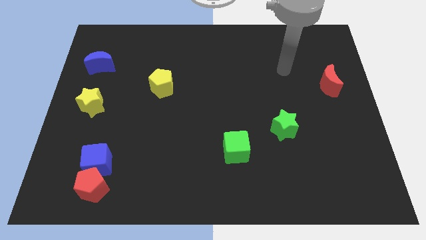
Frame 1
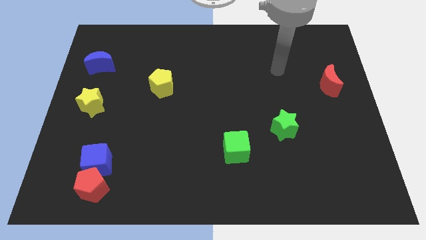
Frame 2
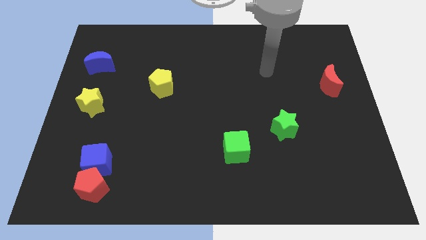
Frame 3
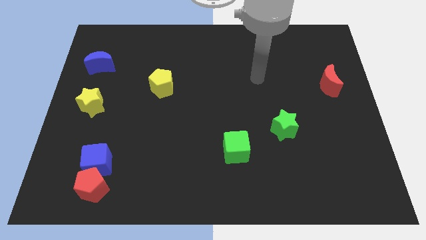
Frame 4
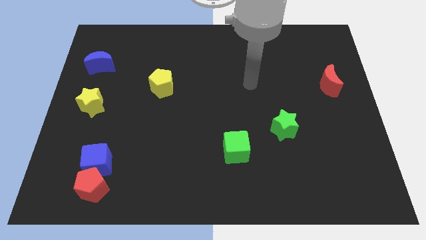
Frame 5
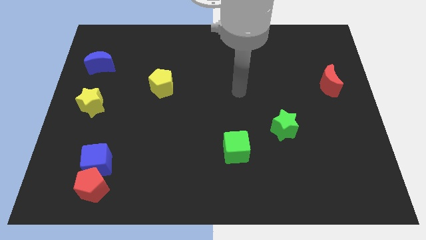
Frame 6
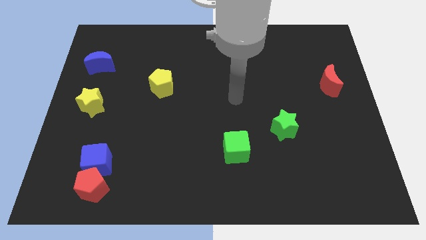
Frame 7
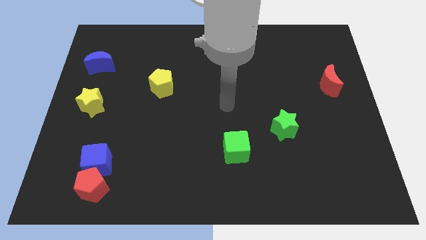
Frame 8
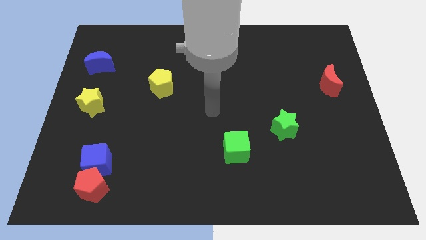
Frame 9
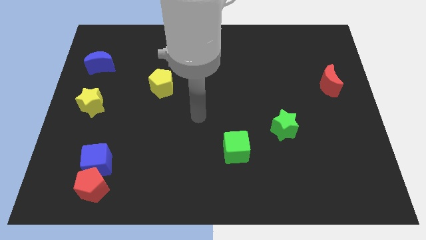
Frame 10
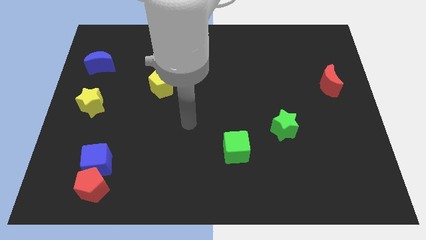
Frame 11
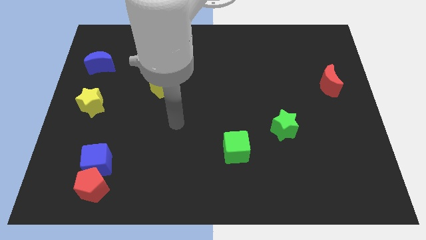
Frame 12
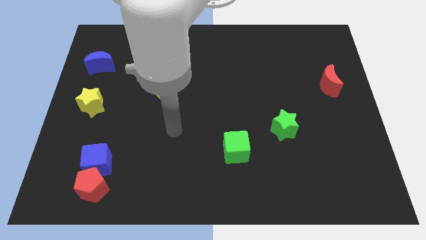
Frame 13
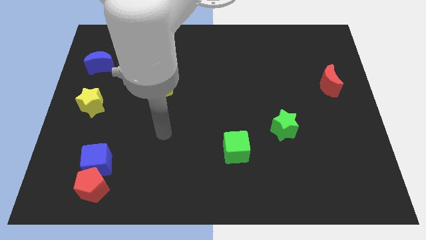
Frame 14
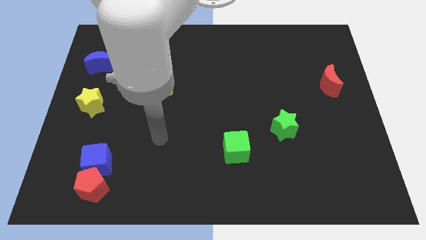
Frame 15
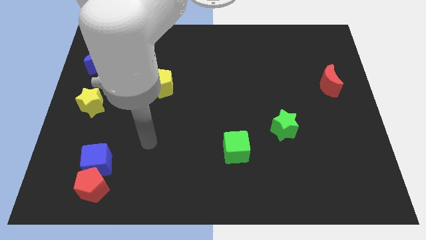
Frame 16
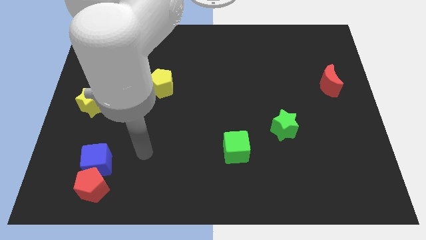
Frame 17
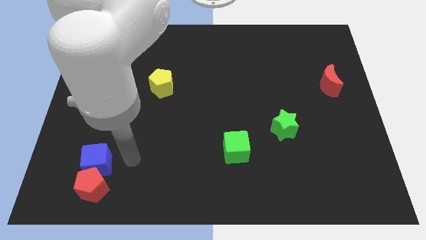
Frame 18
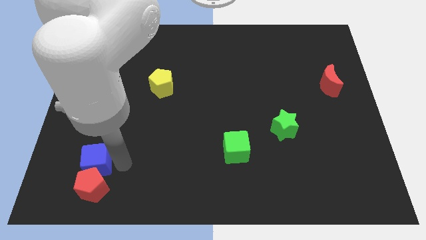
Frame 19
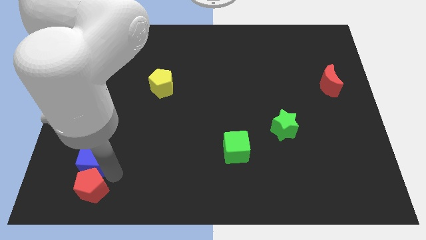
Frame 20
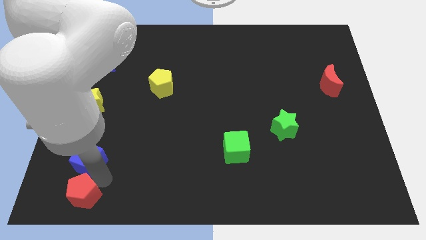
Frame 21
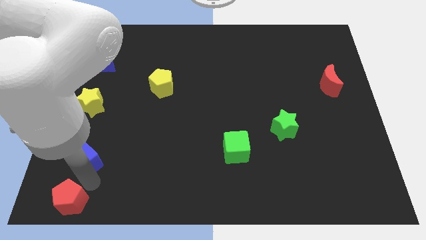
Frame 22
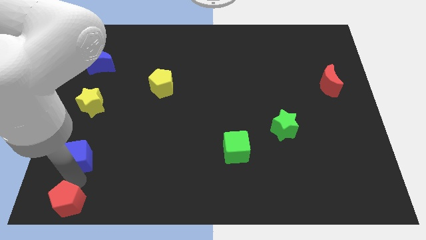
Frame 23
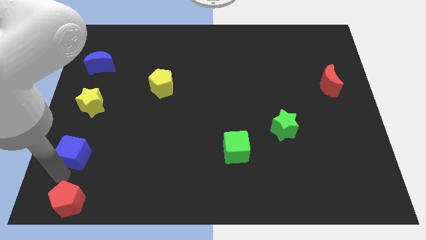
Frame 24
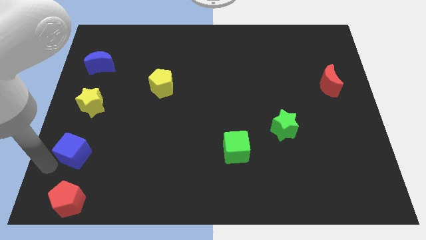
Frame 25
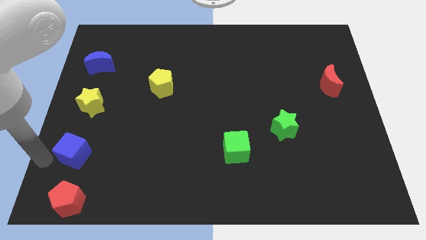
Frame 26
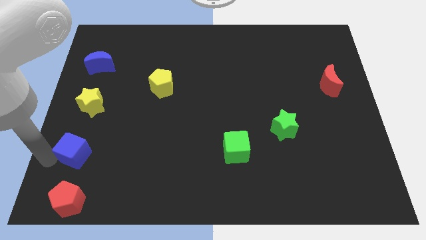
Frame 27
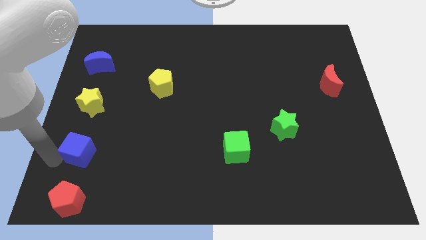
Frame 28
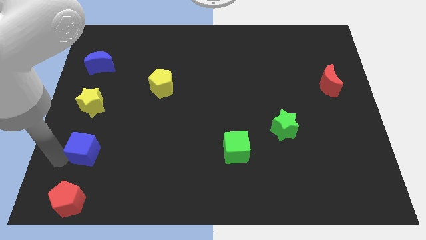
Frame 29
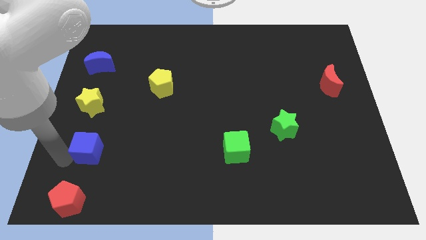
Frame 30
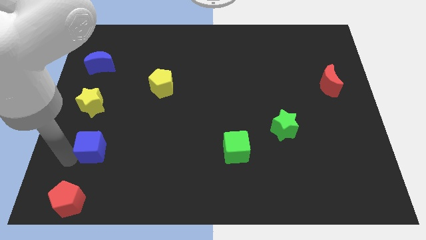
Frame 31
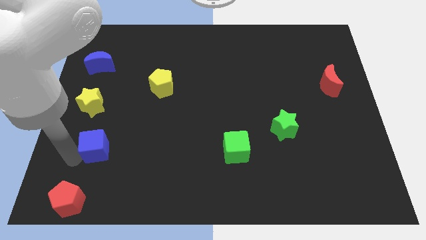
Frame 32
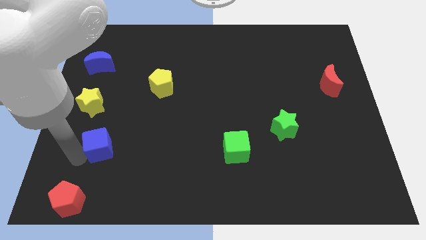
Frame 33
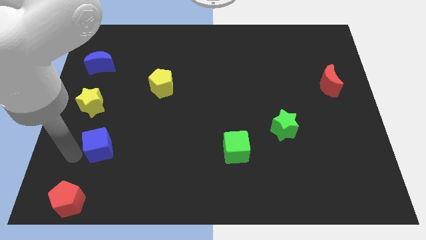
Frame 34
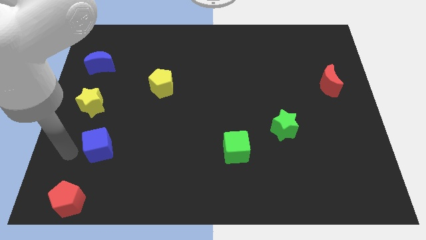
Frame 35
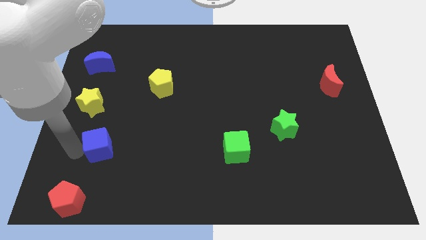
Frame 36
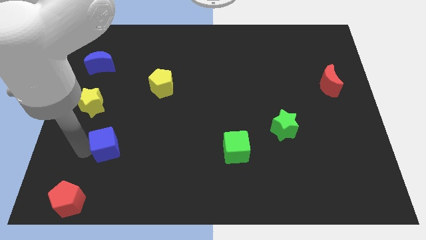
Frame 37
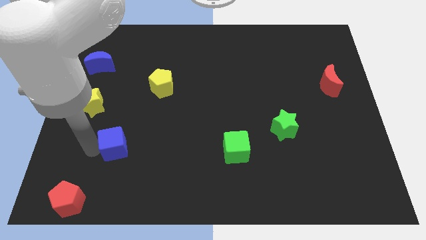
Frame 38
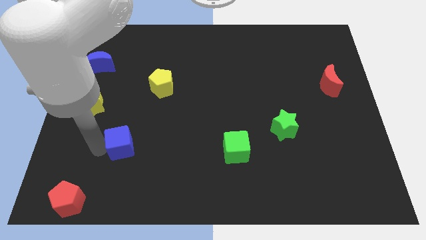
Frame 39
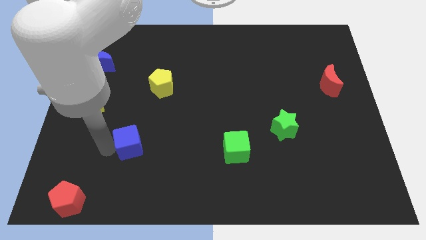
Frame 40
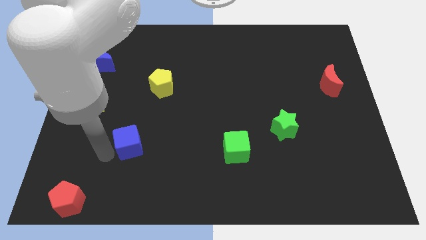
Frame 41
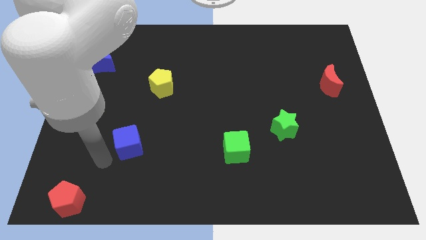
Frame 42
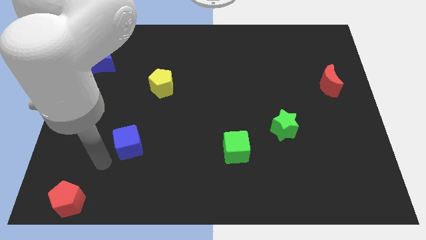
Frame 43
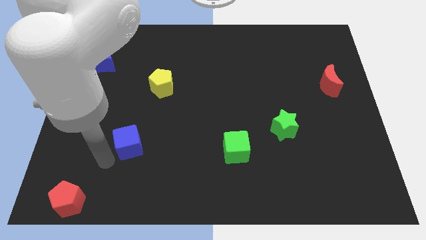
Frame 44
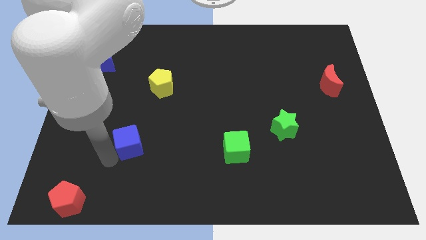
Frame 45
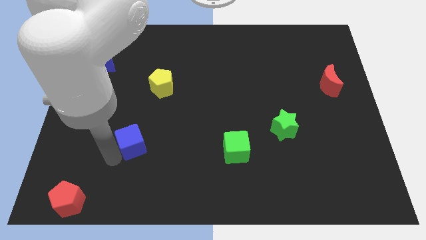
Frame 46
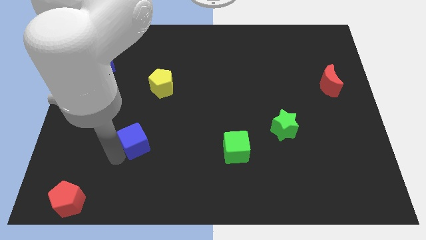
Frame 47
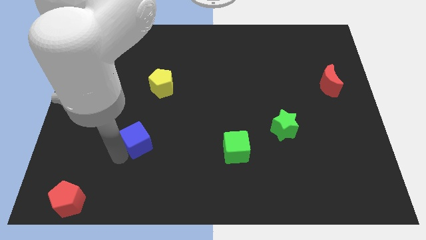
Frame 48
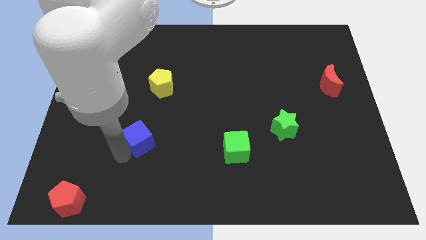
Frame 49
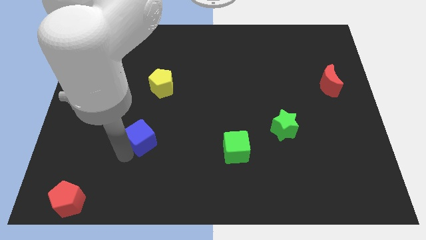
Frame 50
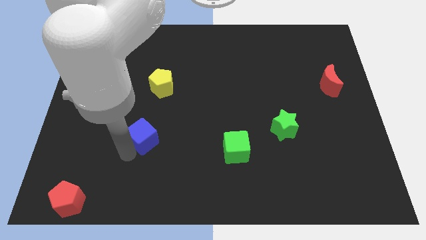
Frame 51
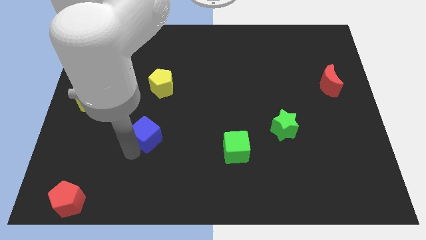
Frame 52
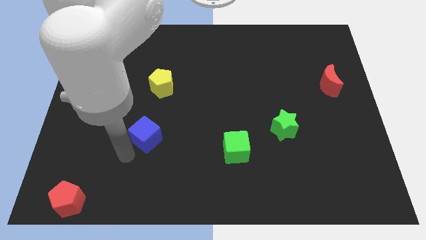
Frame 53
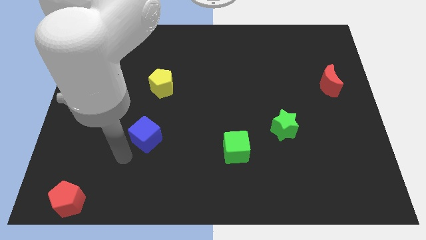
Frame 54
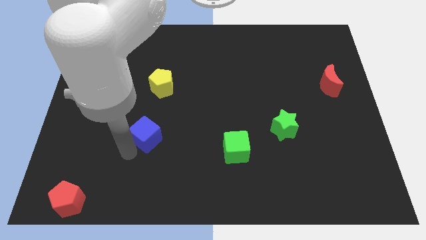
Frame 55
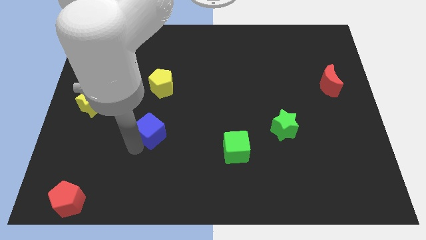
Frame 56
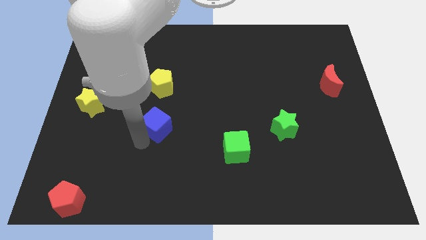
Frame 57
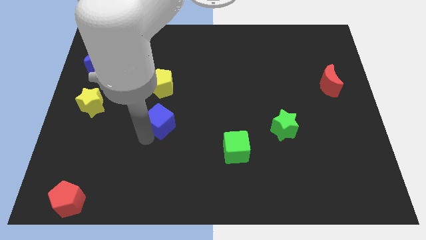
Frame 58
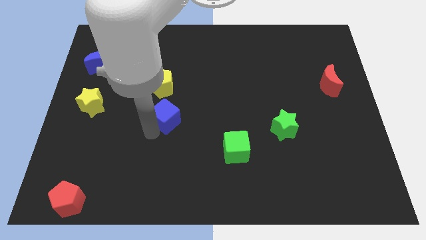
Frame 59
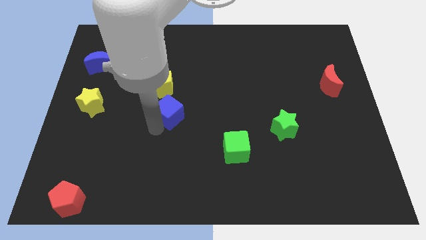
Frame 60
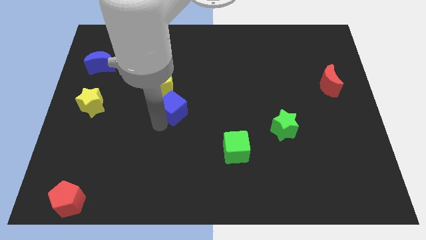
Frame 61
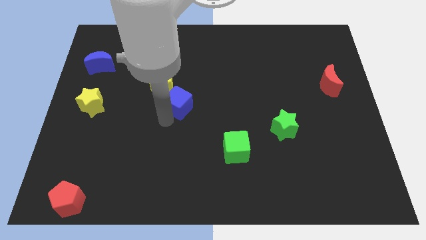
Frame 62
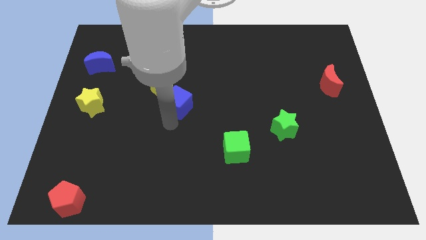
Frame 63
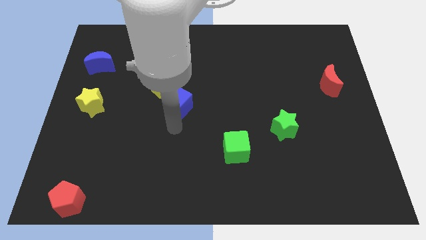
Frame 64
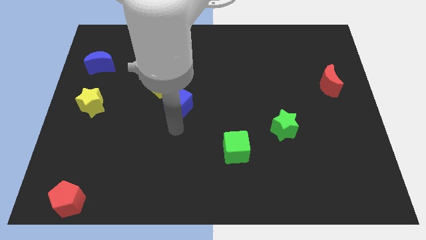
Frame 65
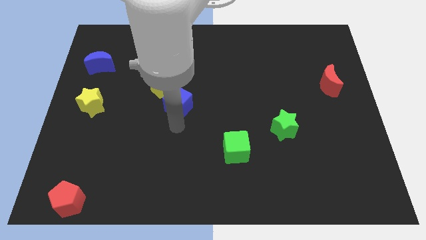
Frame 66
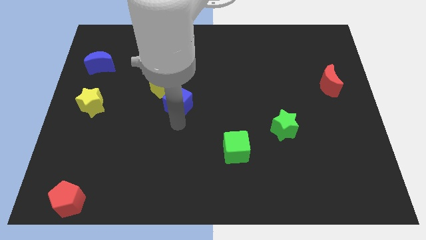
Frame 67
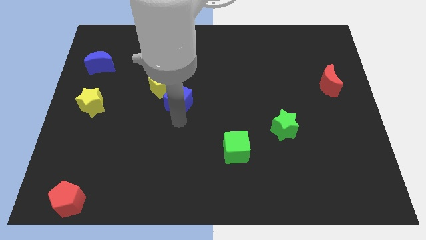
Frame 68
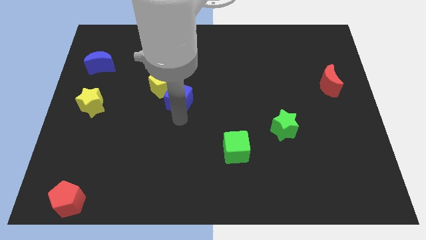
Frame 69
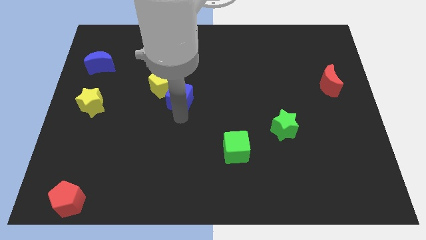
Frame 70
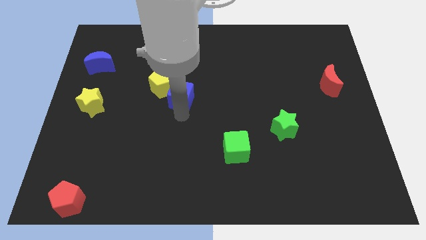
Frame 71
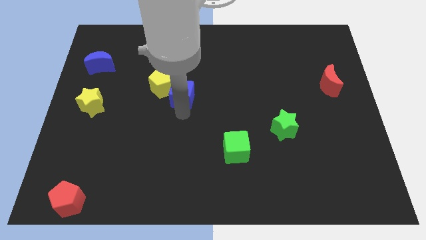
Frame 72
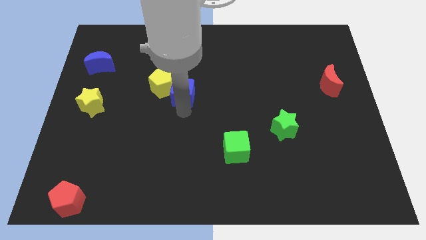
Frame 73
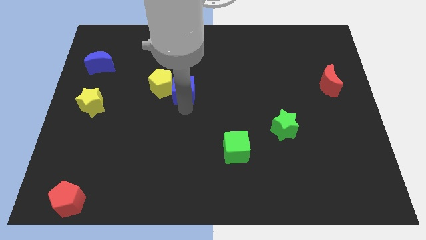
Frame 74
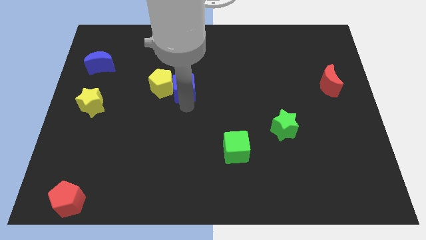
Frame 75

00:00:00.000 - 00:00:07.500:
slide the blue cube diagonally up and to the right of the yellow pentagon
